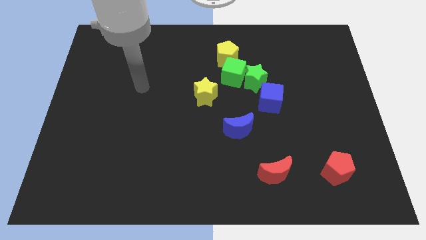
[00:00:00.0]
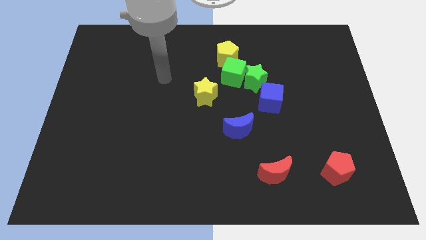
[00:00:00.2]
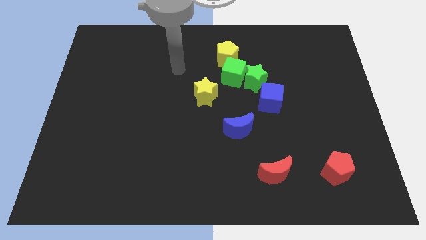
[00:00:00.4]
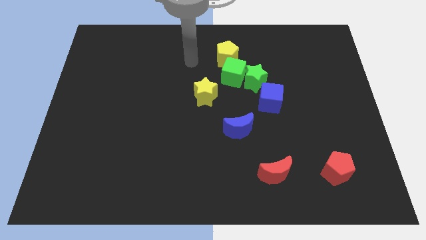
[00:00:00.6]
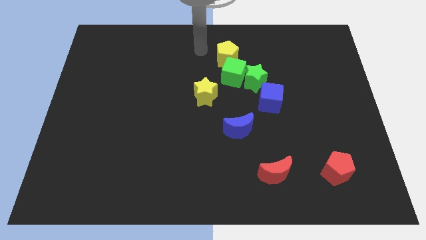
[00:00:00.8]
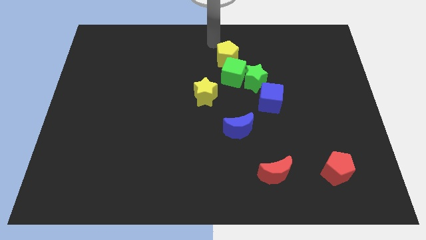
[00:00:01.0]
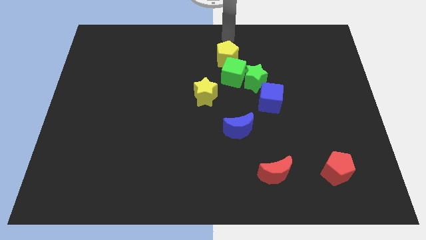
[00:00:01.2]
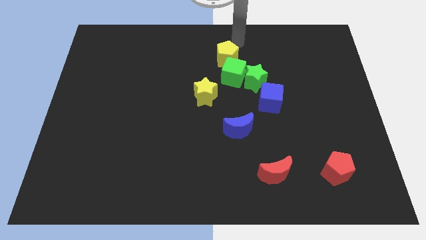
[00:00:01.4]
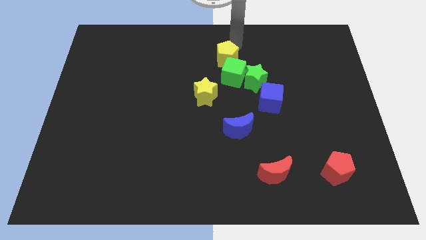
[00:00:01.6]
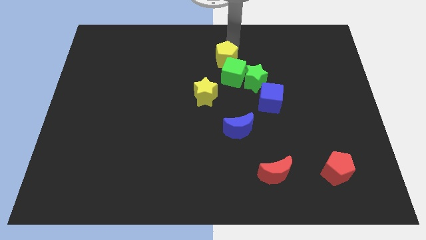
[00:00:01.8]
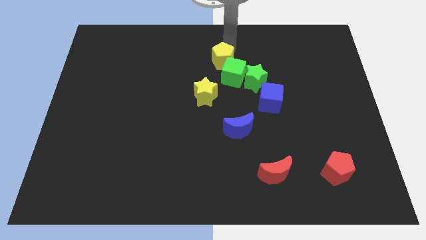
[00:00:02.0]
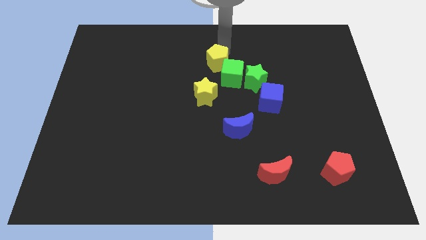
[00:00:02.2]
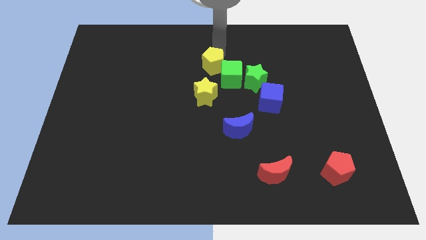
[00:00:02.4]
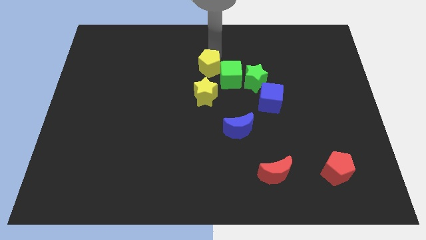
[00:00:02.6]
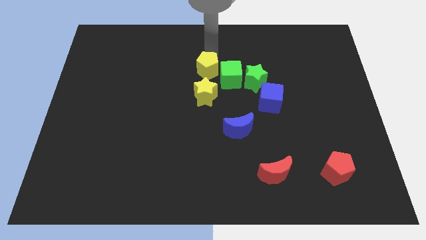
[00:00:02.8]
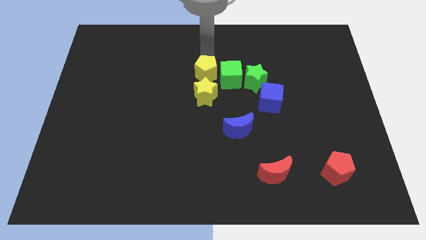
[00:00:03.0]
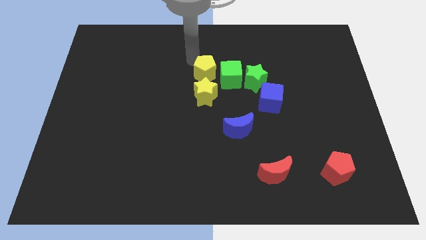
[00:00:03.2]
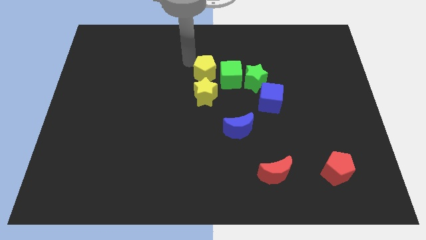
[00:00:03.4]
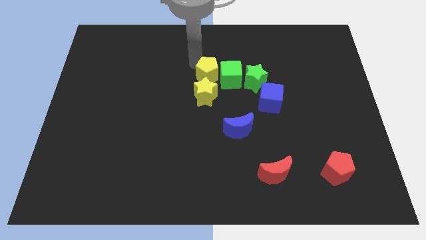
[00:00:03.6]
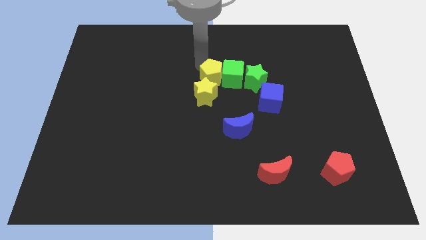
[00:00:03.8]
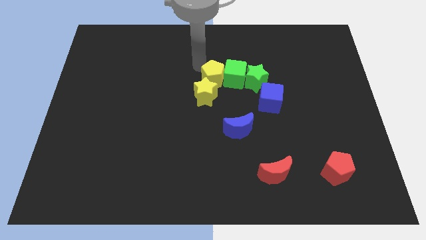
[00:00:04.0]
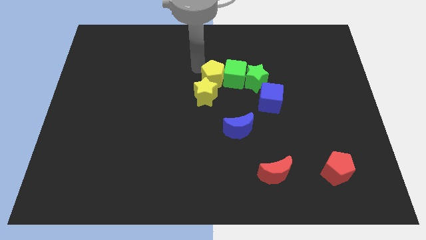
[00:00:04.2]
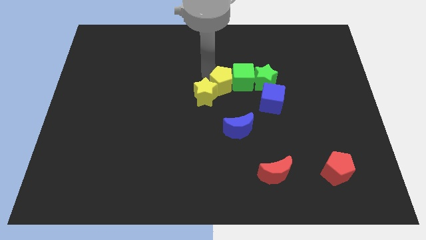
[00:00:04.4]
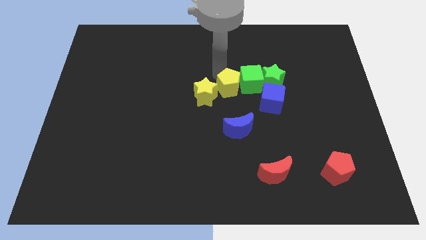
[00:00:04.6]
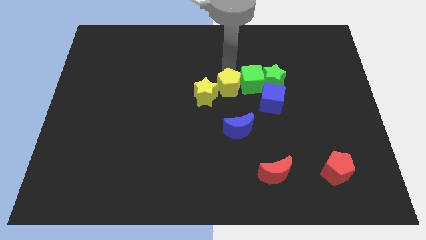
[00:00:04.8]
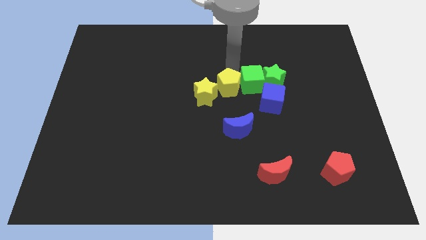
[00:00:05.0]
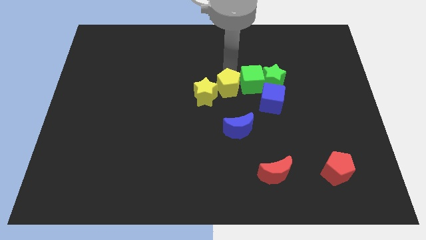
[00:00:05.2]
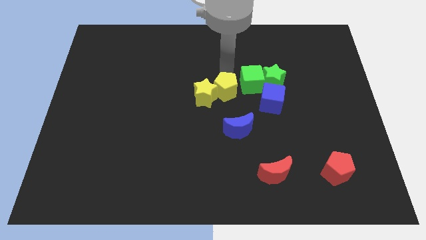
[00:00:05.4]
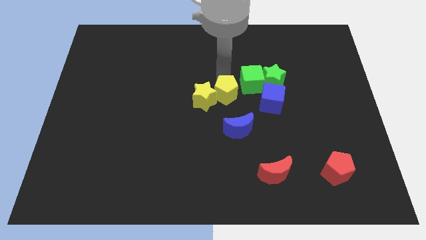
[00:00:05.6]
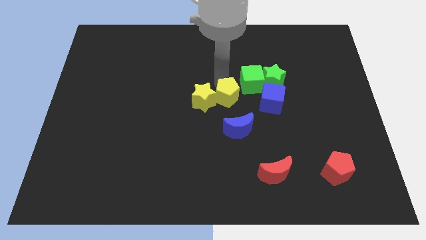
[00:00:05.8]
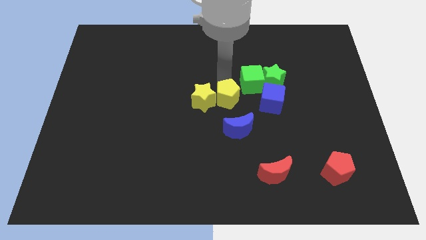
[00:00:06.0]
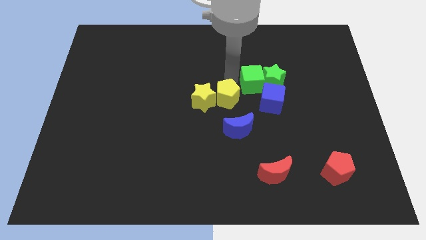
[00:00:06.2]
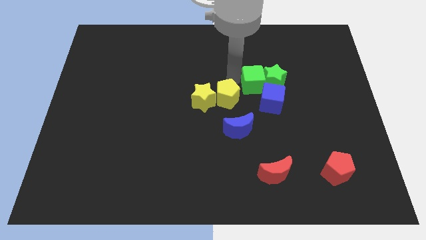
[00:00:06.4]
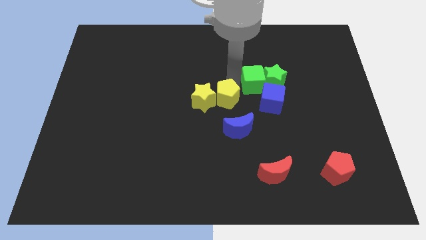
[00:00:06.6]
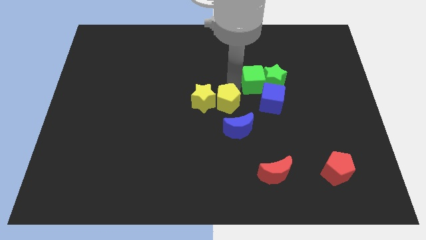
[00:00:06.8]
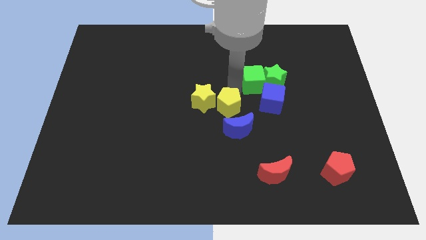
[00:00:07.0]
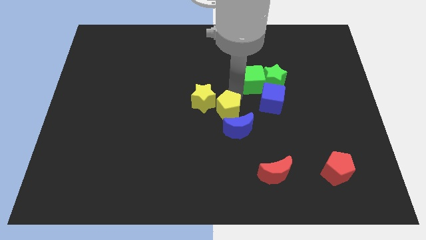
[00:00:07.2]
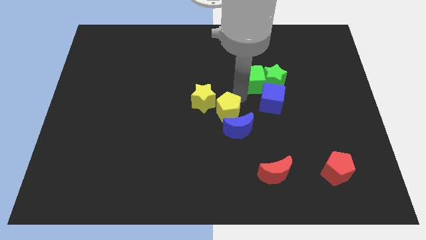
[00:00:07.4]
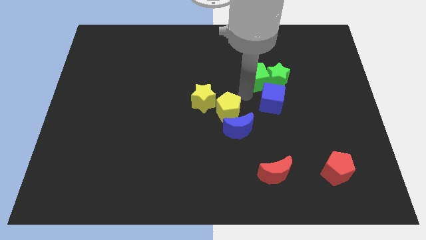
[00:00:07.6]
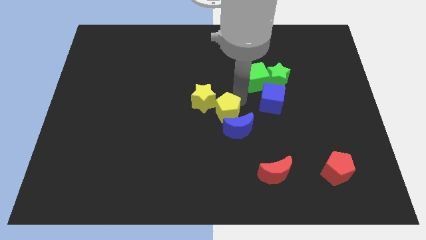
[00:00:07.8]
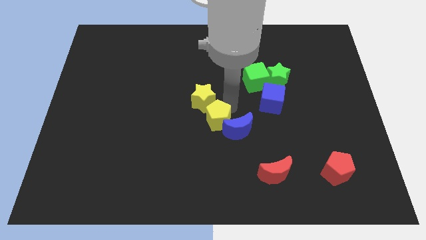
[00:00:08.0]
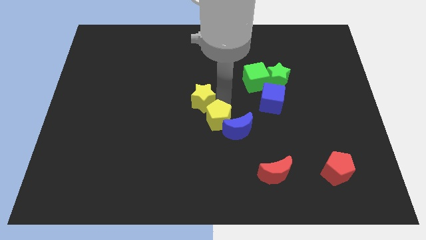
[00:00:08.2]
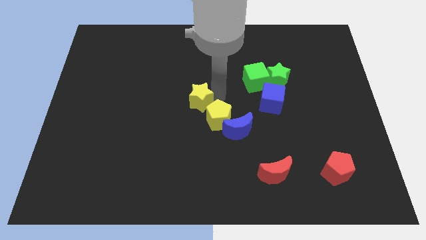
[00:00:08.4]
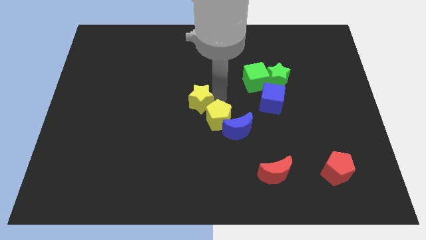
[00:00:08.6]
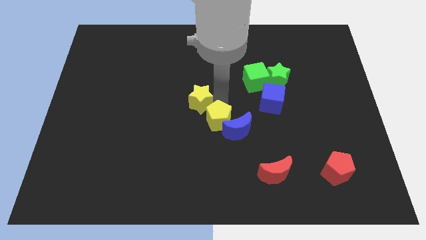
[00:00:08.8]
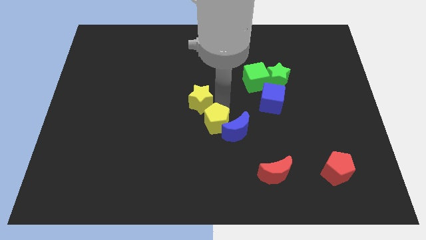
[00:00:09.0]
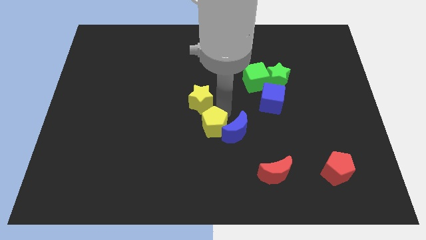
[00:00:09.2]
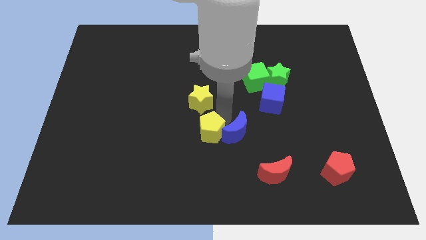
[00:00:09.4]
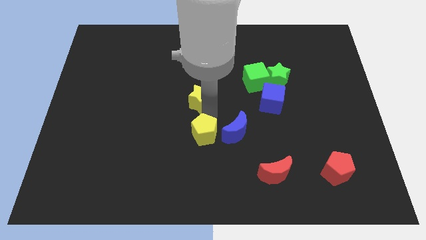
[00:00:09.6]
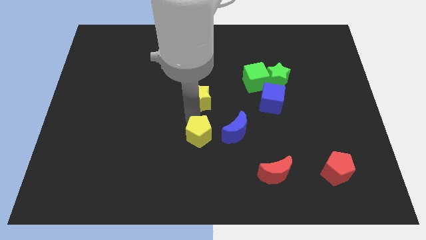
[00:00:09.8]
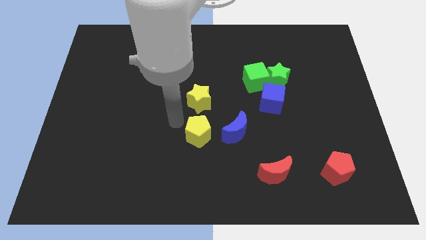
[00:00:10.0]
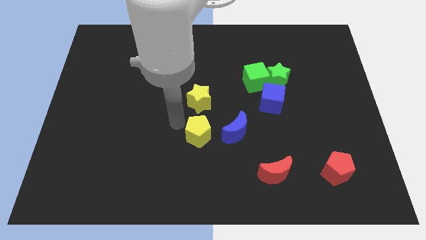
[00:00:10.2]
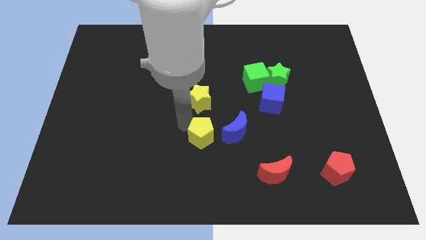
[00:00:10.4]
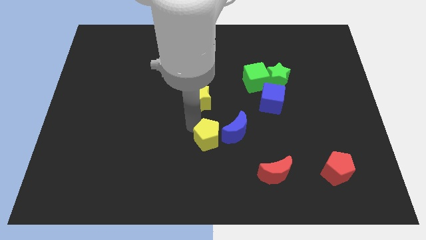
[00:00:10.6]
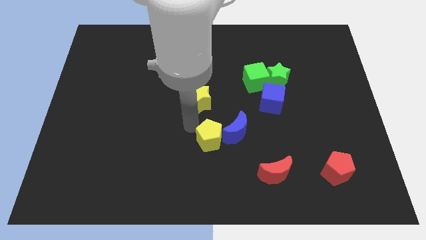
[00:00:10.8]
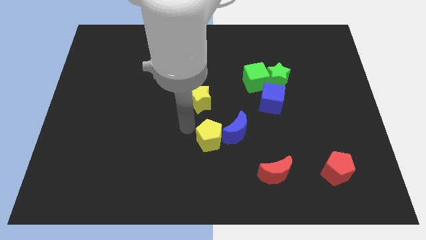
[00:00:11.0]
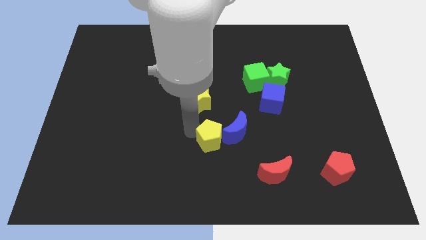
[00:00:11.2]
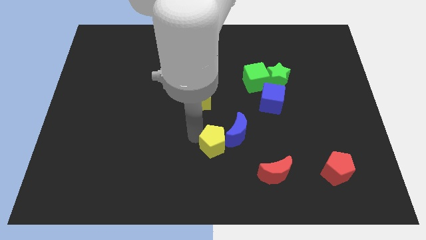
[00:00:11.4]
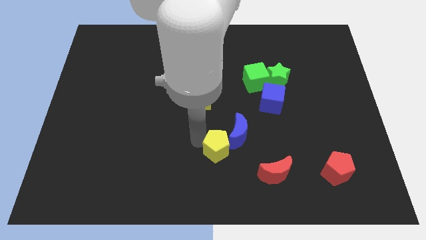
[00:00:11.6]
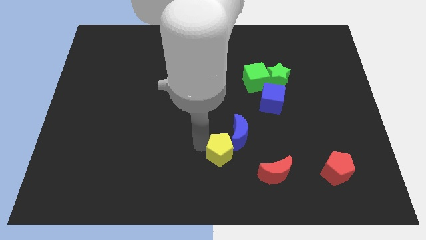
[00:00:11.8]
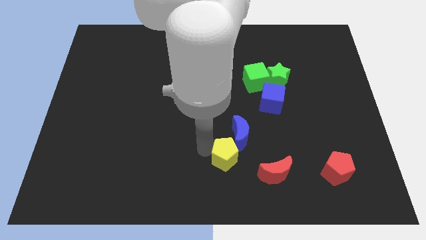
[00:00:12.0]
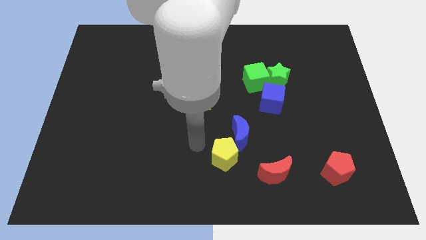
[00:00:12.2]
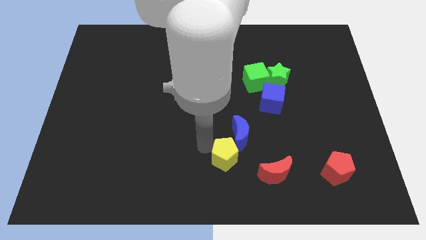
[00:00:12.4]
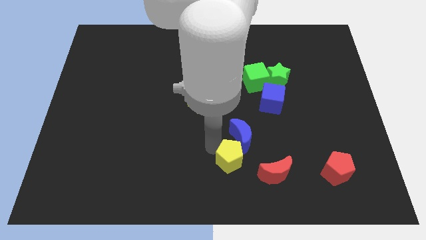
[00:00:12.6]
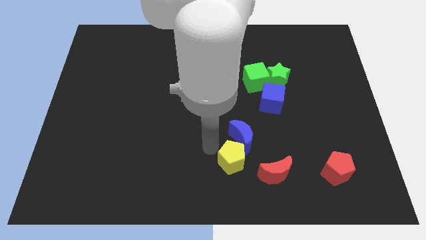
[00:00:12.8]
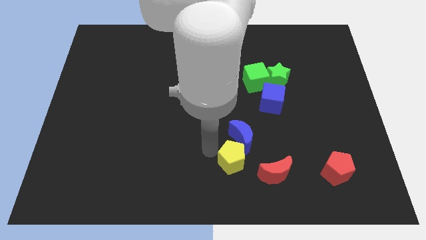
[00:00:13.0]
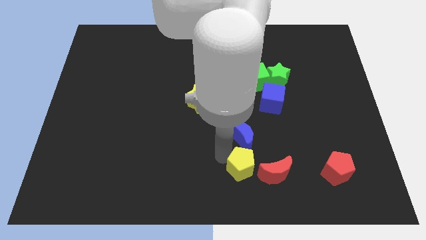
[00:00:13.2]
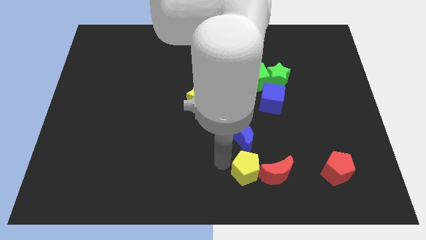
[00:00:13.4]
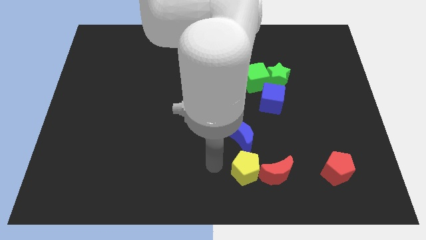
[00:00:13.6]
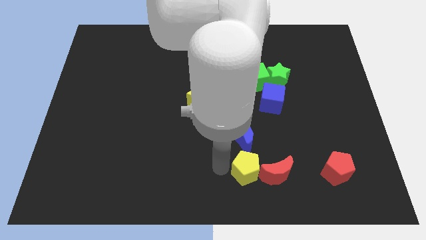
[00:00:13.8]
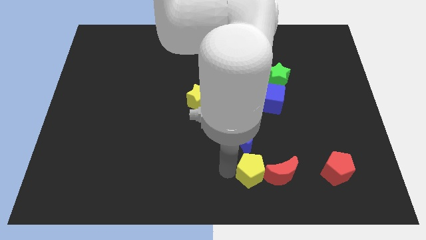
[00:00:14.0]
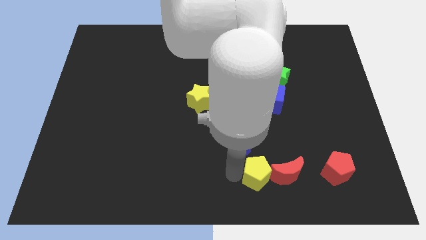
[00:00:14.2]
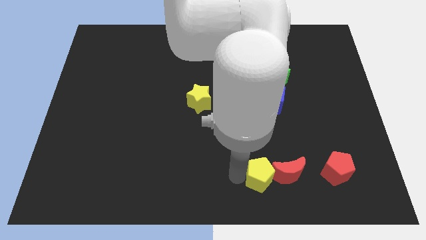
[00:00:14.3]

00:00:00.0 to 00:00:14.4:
push the yellow pentagon close to the red moon
